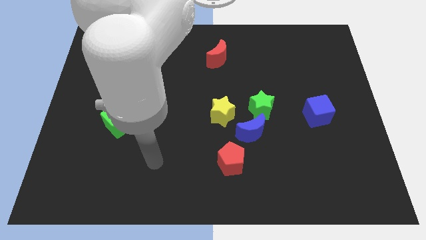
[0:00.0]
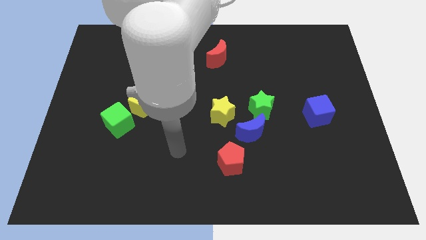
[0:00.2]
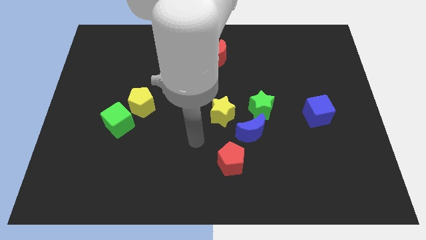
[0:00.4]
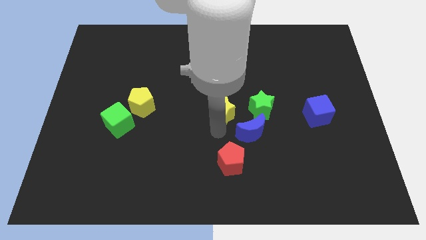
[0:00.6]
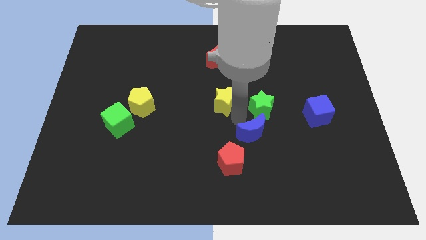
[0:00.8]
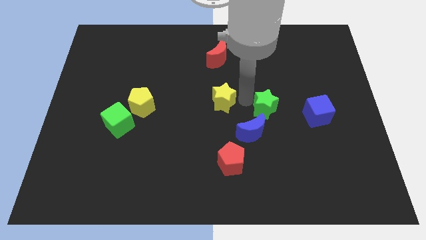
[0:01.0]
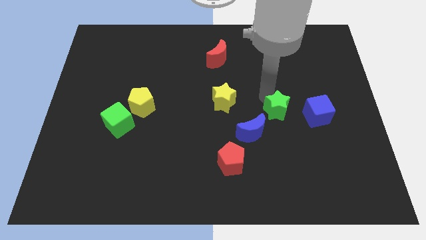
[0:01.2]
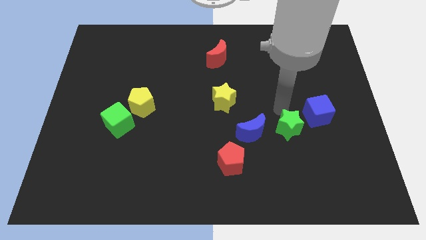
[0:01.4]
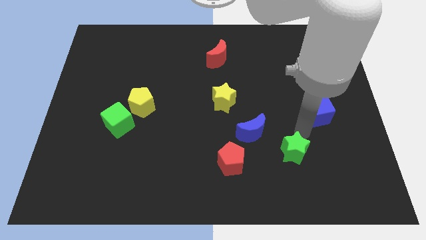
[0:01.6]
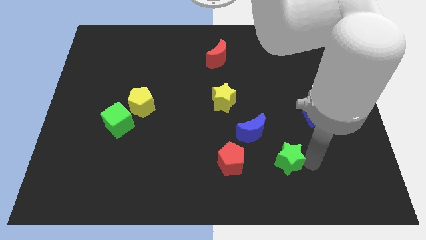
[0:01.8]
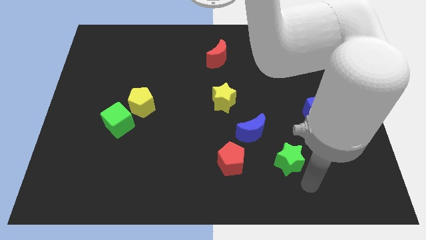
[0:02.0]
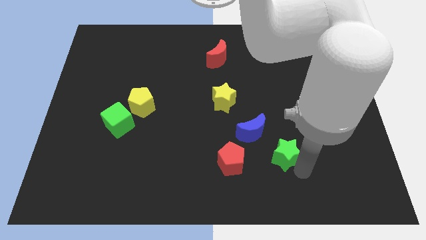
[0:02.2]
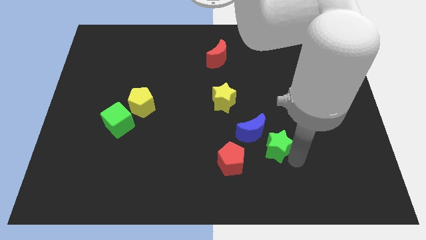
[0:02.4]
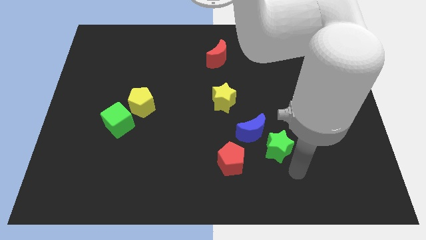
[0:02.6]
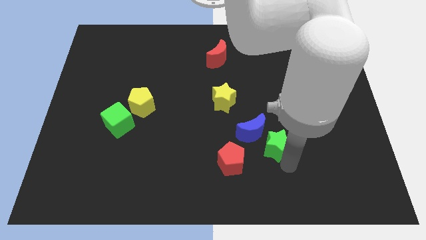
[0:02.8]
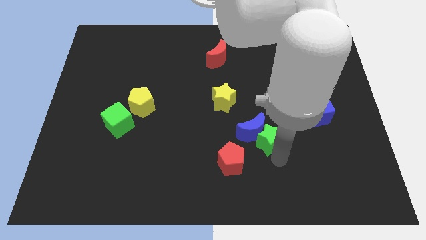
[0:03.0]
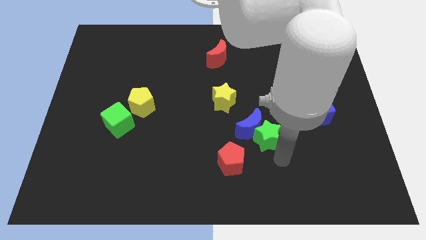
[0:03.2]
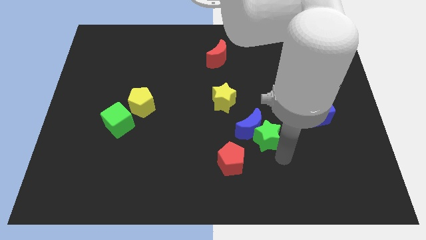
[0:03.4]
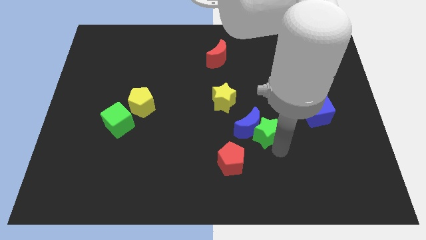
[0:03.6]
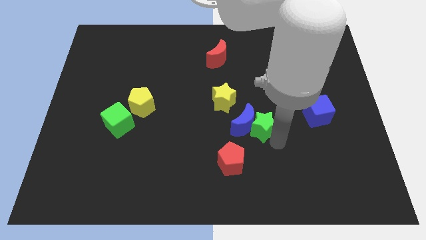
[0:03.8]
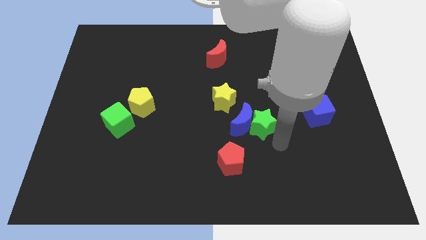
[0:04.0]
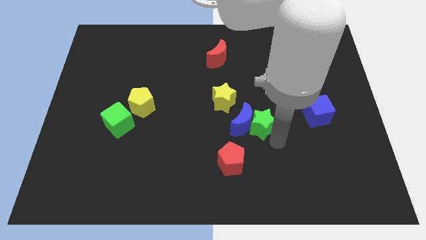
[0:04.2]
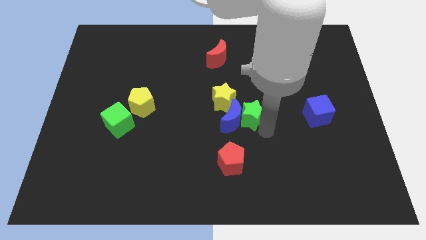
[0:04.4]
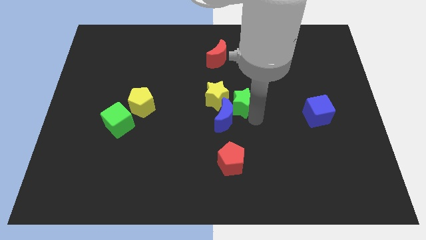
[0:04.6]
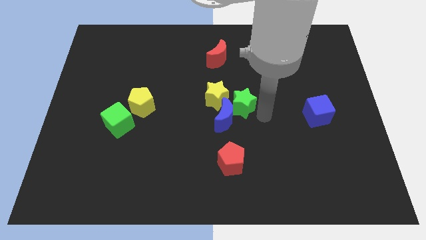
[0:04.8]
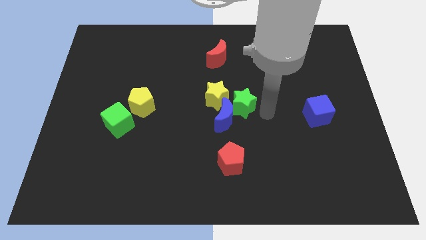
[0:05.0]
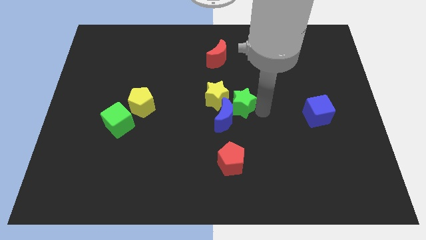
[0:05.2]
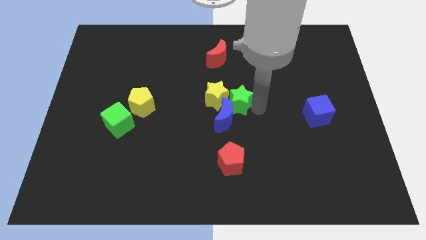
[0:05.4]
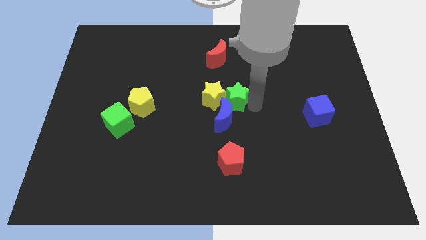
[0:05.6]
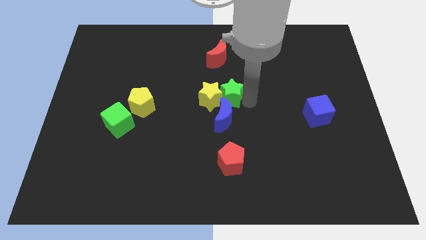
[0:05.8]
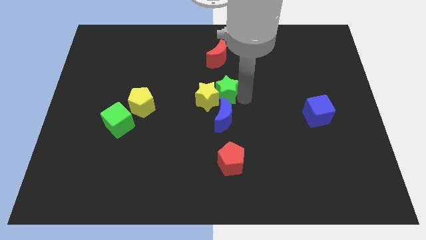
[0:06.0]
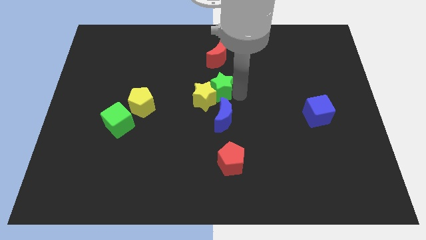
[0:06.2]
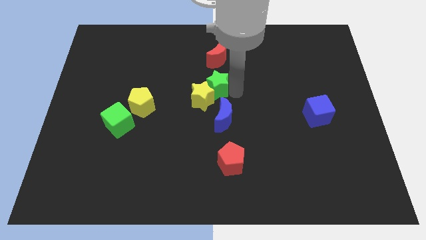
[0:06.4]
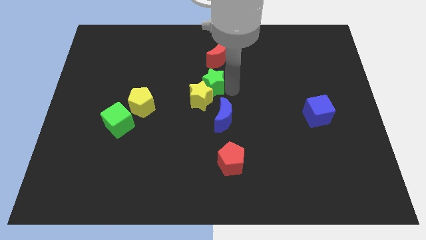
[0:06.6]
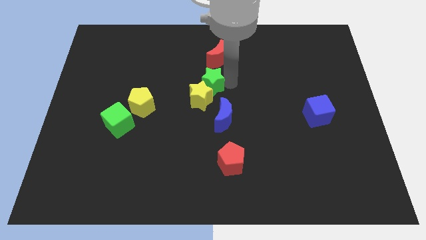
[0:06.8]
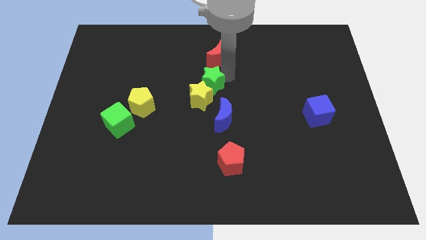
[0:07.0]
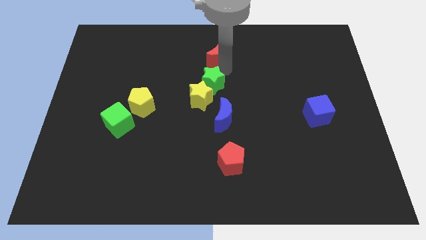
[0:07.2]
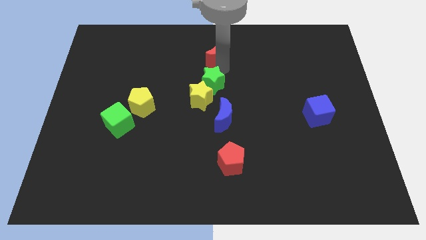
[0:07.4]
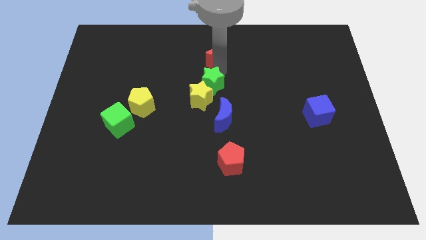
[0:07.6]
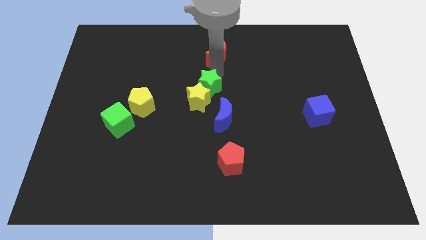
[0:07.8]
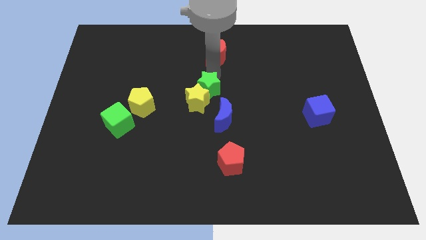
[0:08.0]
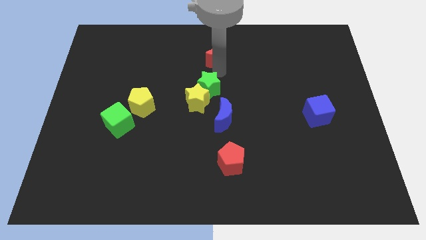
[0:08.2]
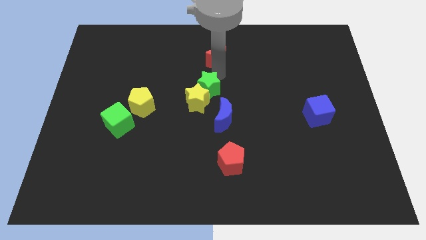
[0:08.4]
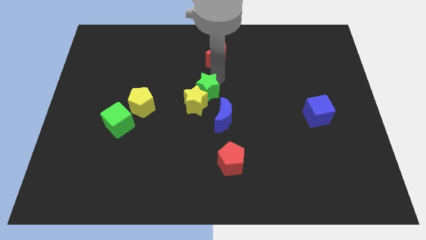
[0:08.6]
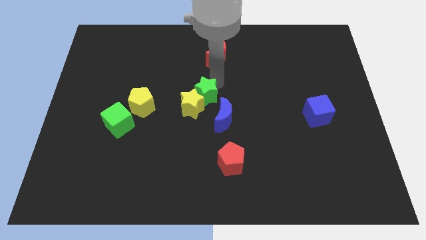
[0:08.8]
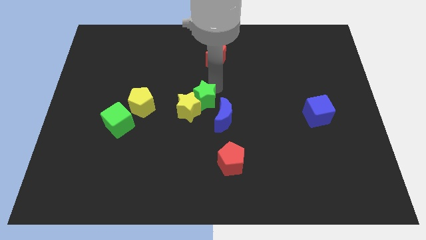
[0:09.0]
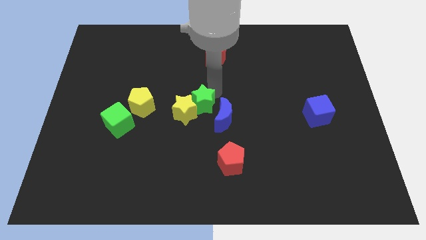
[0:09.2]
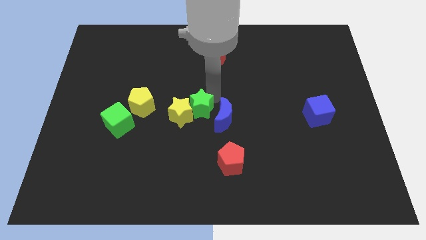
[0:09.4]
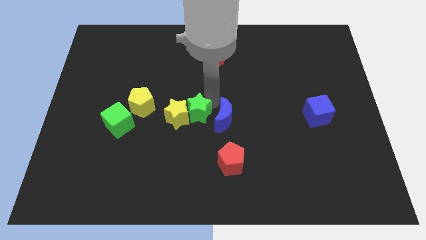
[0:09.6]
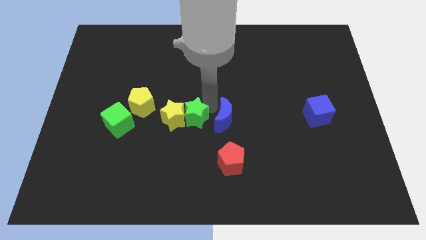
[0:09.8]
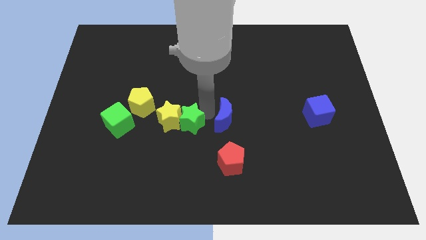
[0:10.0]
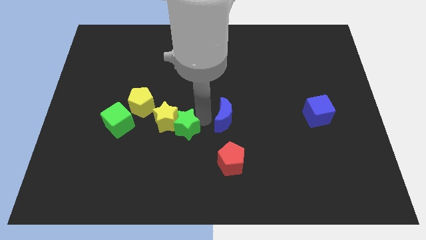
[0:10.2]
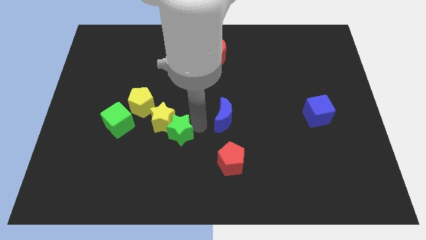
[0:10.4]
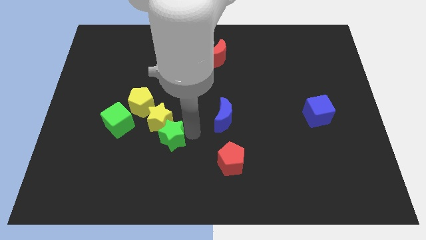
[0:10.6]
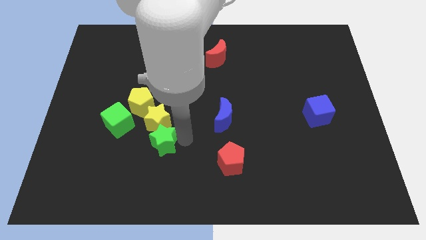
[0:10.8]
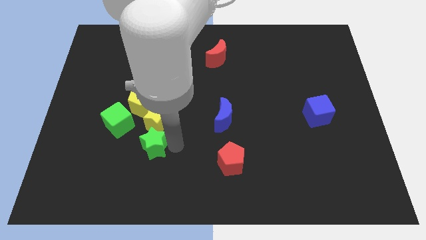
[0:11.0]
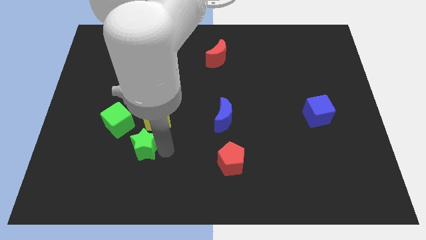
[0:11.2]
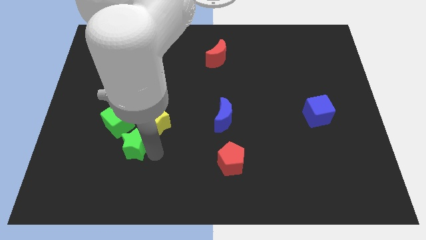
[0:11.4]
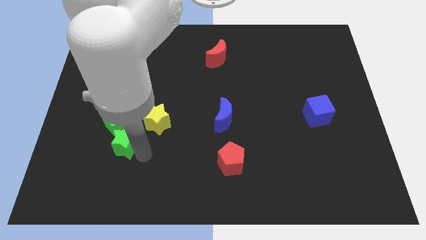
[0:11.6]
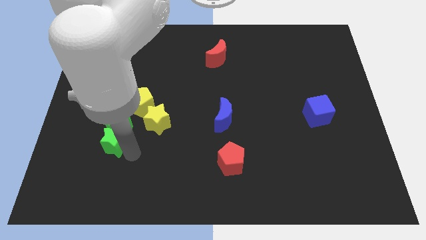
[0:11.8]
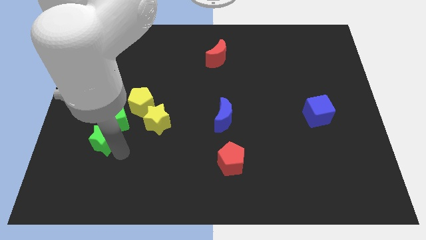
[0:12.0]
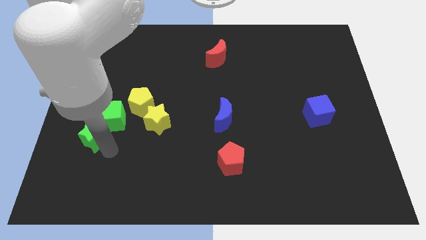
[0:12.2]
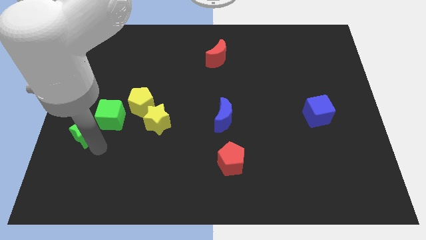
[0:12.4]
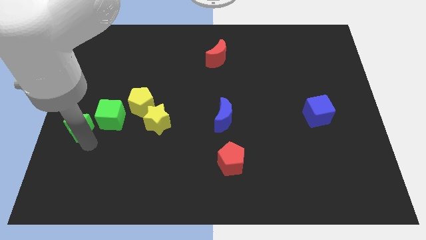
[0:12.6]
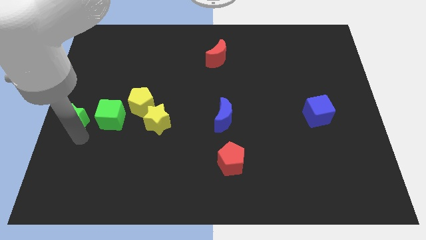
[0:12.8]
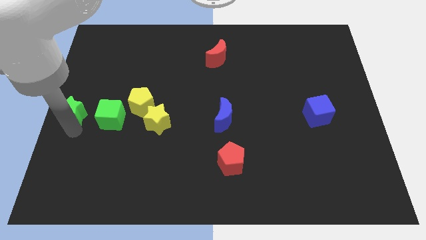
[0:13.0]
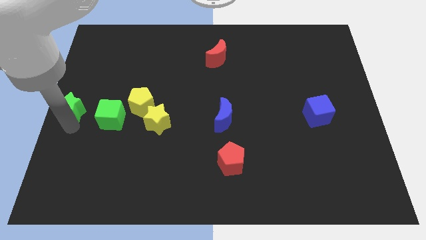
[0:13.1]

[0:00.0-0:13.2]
push the green star to the top left of the green cube

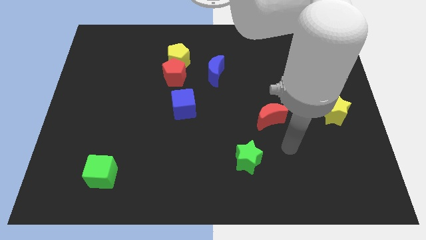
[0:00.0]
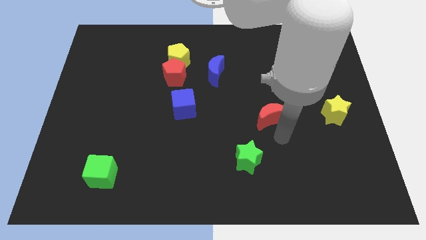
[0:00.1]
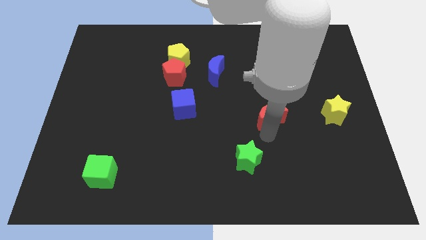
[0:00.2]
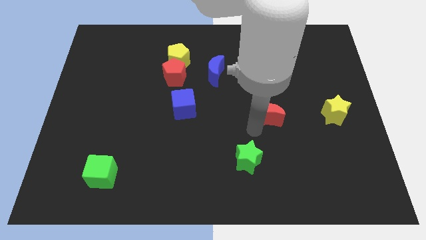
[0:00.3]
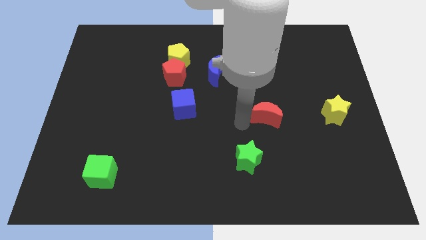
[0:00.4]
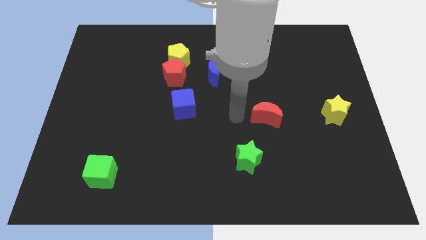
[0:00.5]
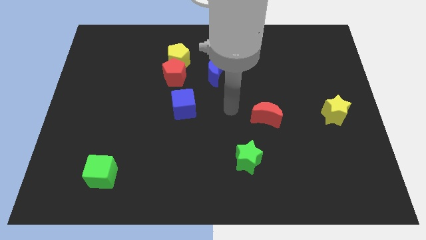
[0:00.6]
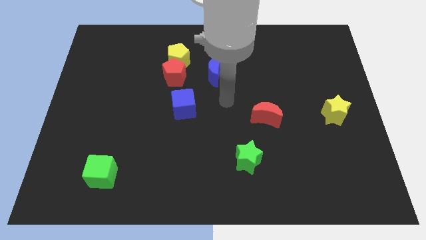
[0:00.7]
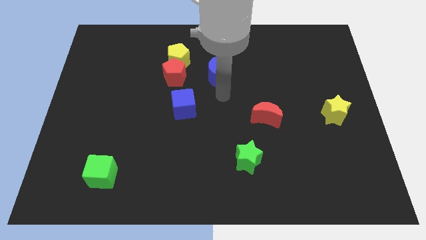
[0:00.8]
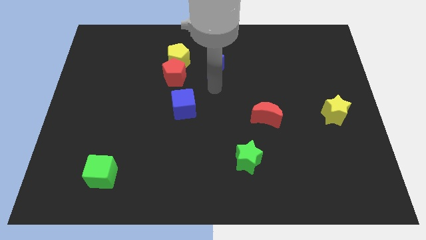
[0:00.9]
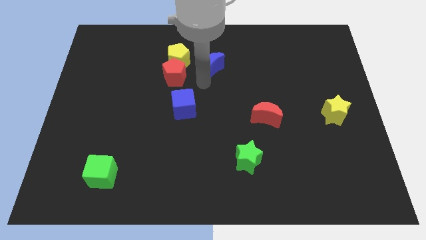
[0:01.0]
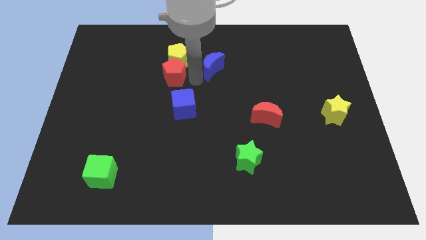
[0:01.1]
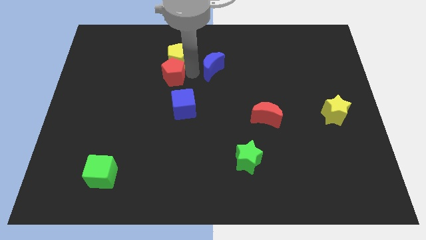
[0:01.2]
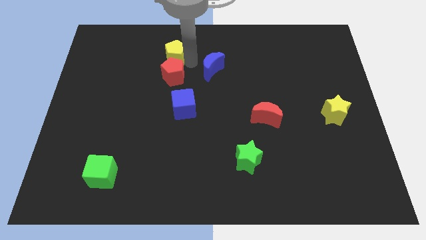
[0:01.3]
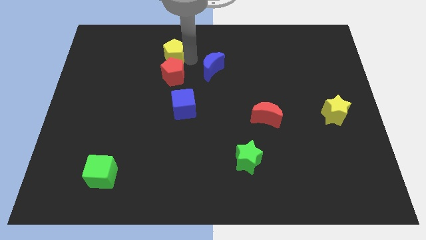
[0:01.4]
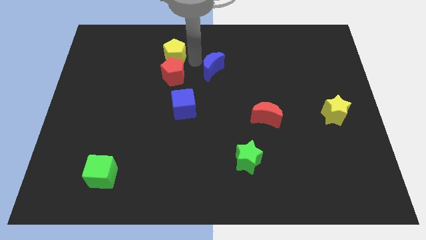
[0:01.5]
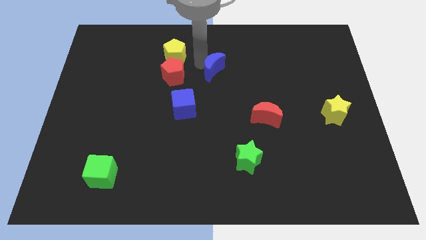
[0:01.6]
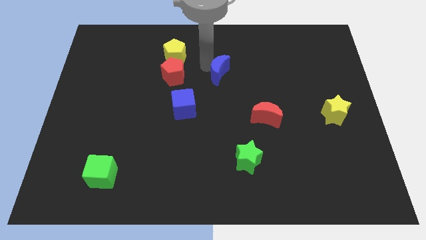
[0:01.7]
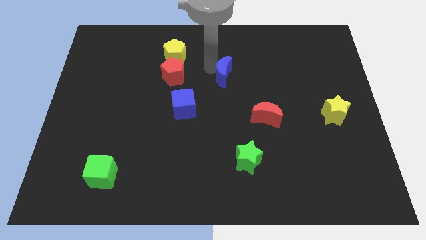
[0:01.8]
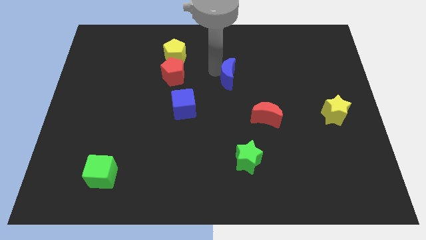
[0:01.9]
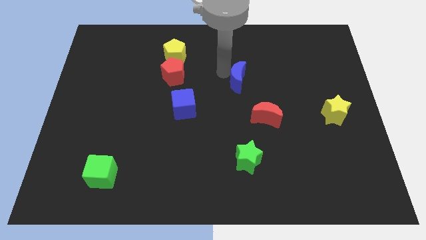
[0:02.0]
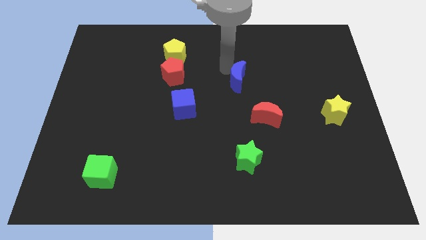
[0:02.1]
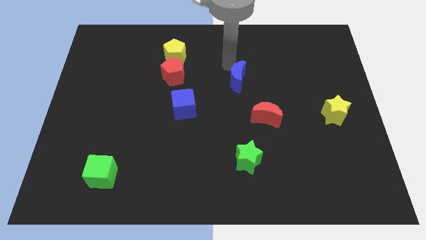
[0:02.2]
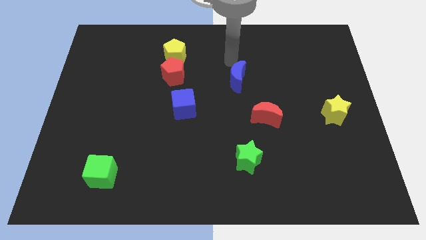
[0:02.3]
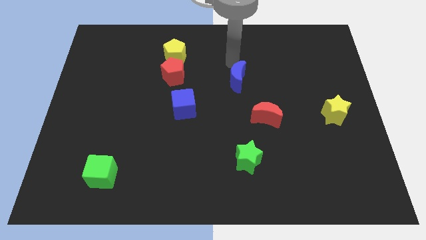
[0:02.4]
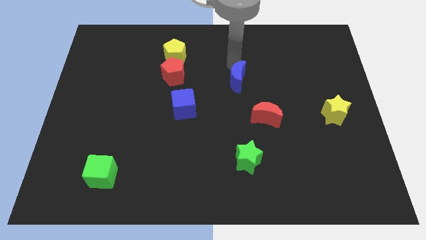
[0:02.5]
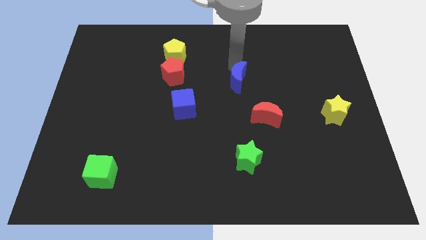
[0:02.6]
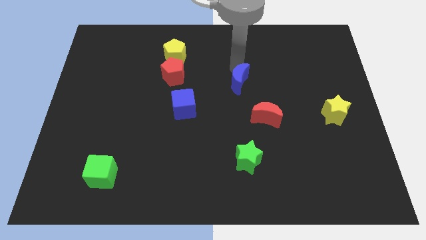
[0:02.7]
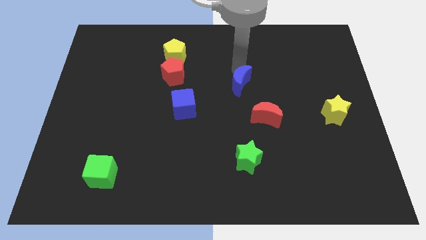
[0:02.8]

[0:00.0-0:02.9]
slide the blue moon to the top left of the red moon
